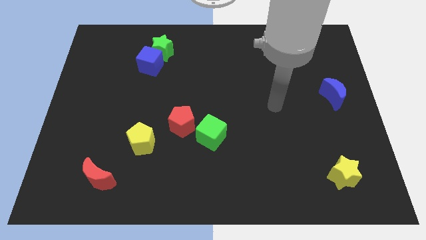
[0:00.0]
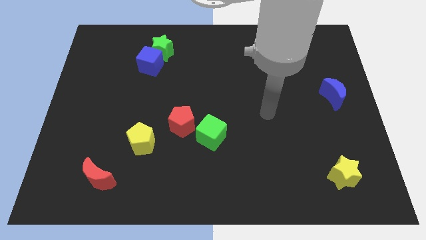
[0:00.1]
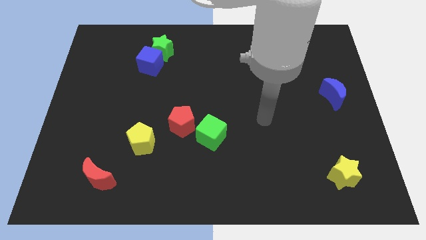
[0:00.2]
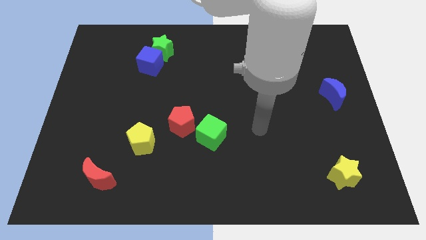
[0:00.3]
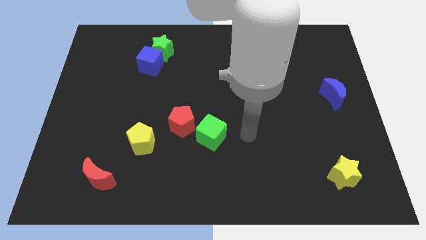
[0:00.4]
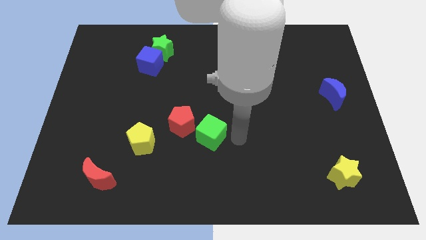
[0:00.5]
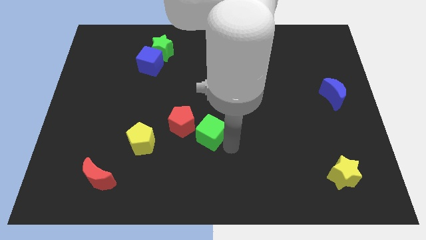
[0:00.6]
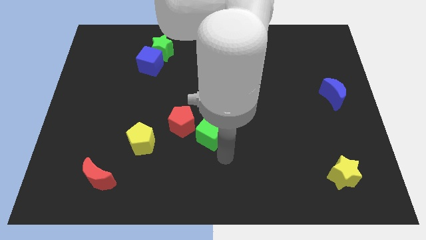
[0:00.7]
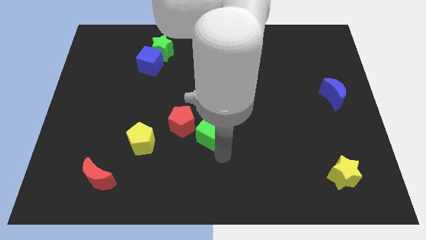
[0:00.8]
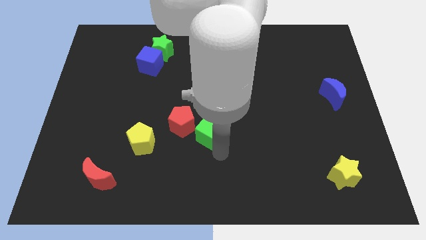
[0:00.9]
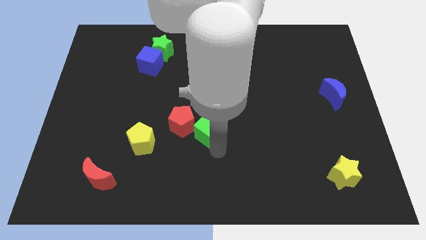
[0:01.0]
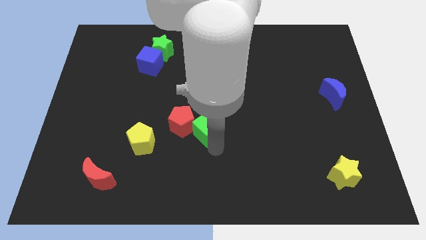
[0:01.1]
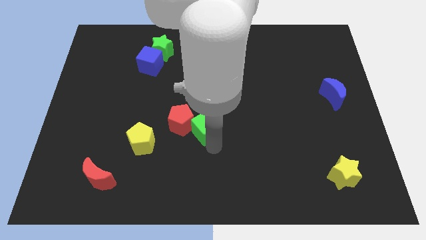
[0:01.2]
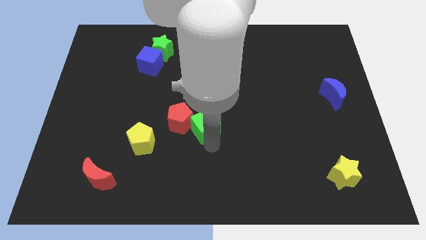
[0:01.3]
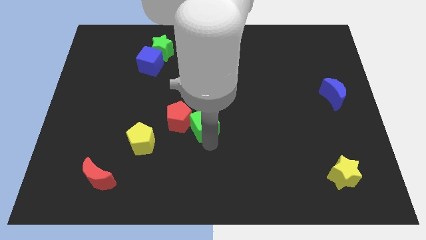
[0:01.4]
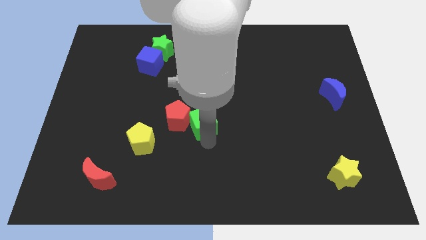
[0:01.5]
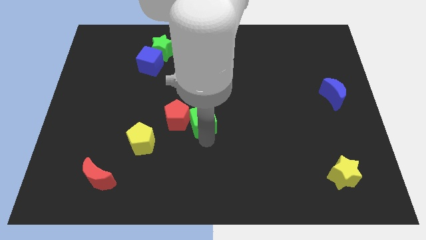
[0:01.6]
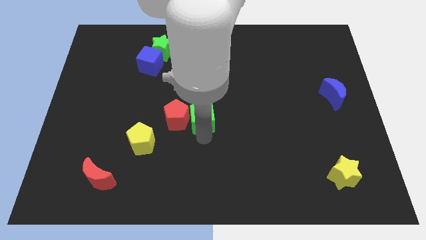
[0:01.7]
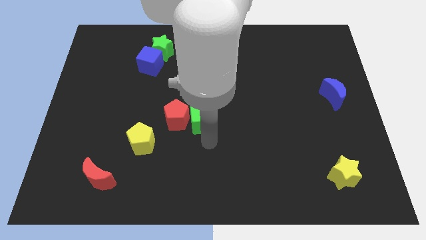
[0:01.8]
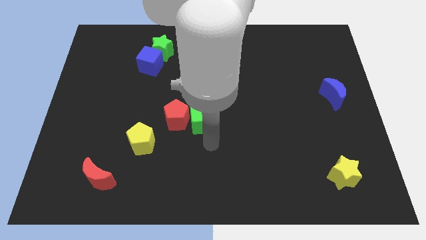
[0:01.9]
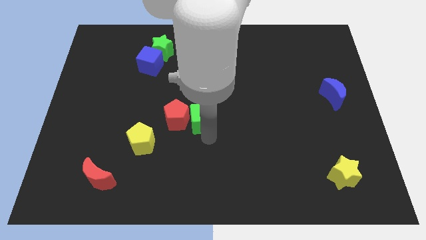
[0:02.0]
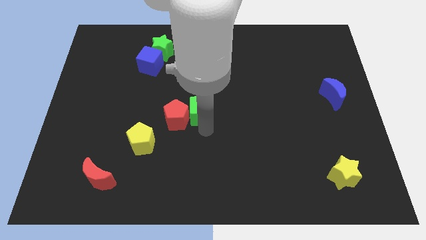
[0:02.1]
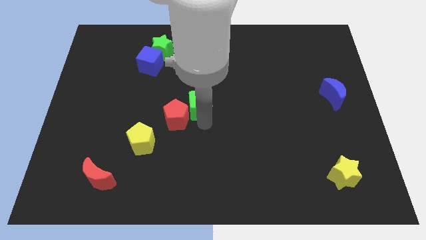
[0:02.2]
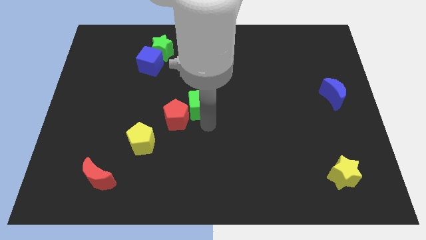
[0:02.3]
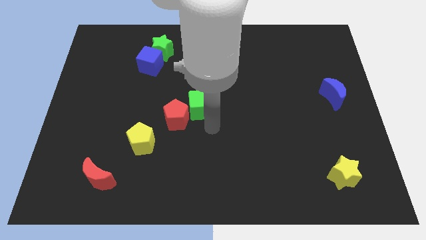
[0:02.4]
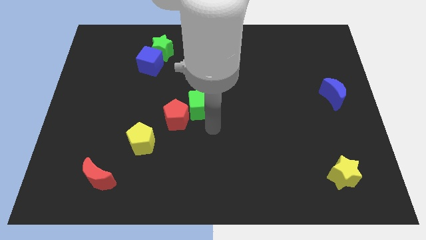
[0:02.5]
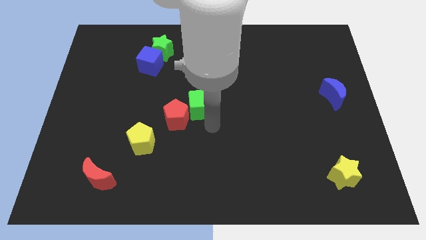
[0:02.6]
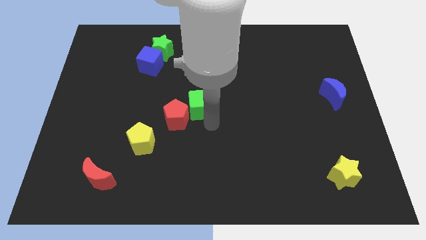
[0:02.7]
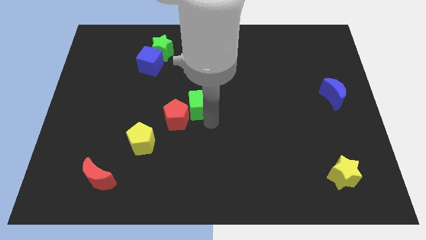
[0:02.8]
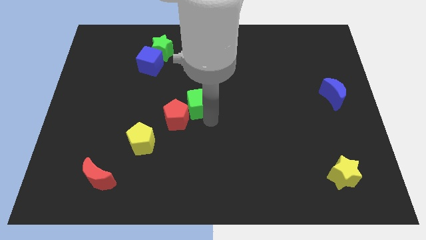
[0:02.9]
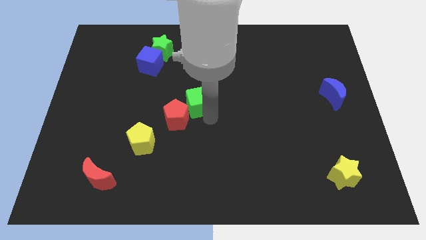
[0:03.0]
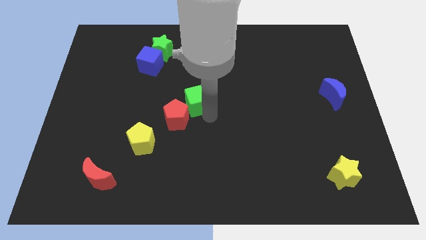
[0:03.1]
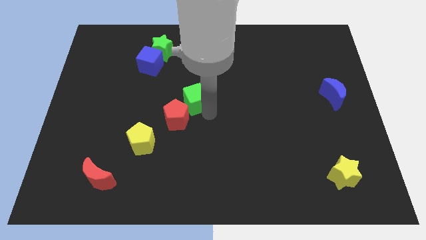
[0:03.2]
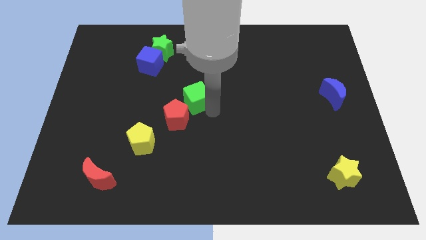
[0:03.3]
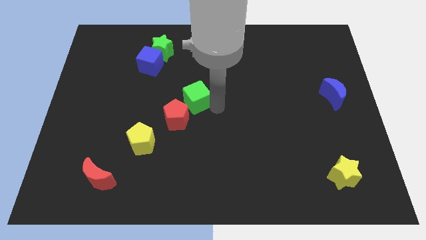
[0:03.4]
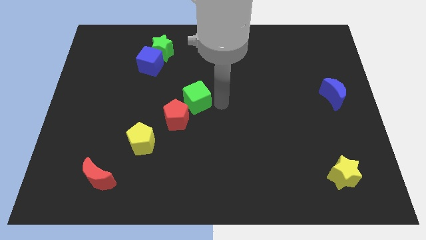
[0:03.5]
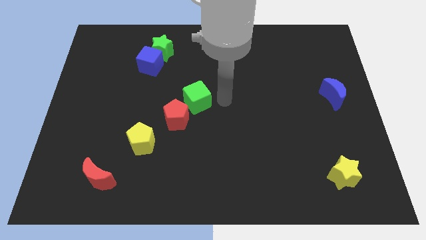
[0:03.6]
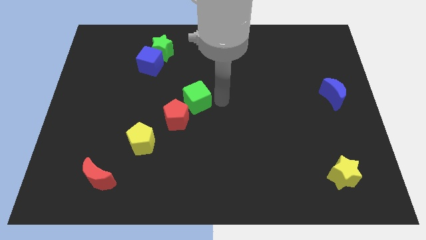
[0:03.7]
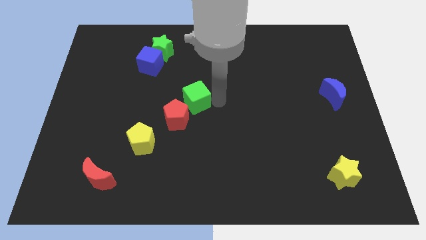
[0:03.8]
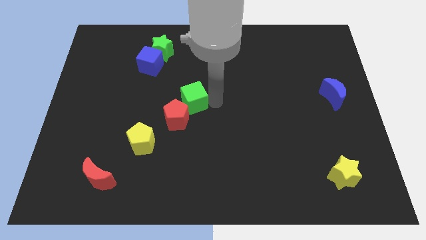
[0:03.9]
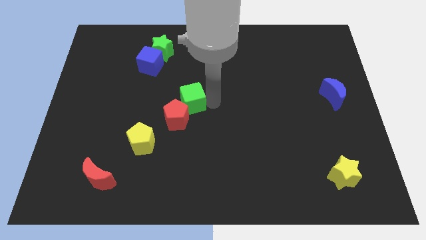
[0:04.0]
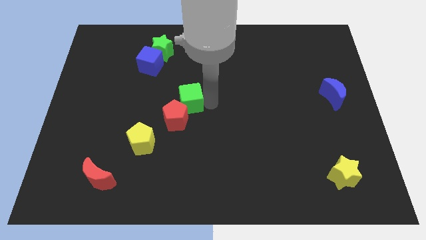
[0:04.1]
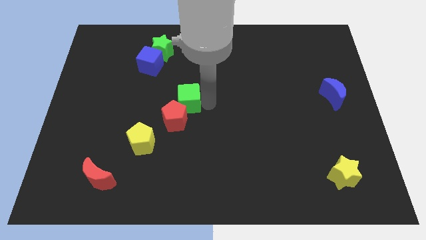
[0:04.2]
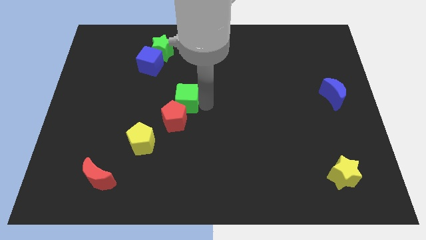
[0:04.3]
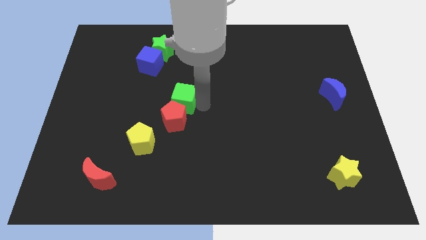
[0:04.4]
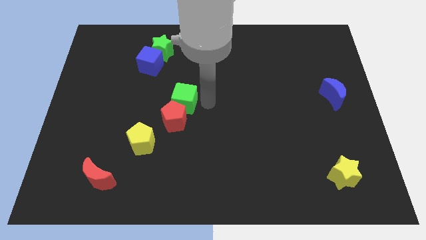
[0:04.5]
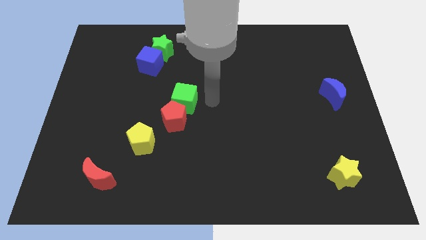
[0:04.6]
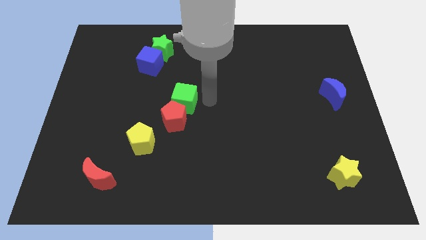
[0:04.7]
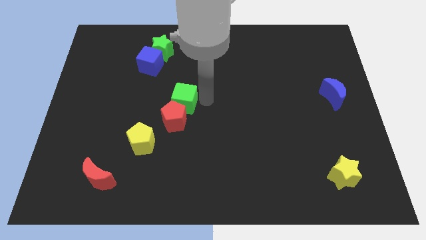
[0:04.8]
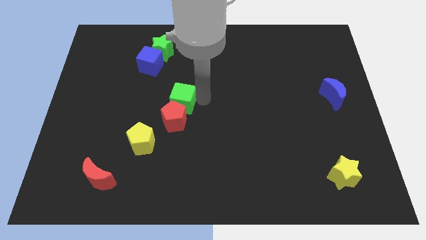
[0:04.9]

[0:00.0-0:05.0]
move the green cube diagonally up and to the left of the red pentagon

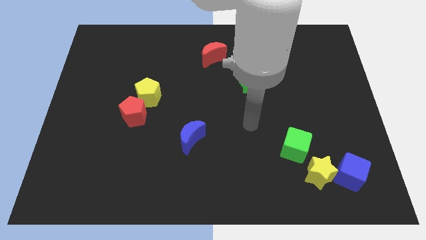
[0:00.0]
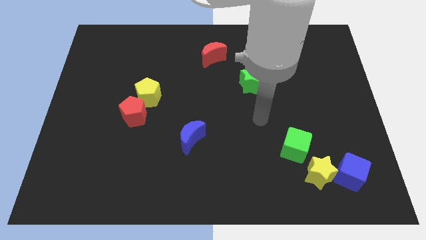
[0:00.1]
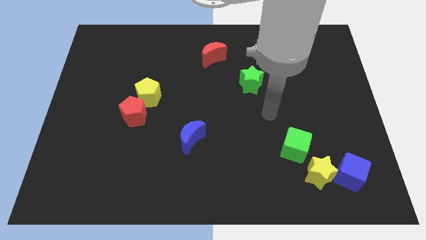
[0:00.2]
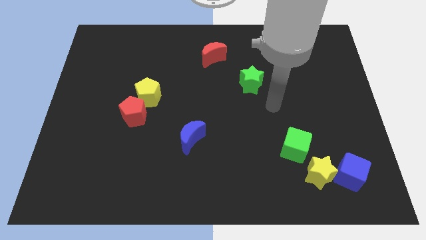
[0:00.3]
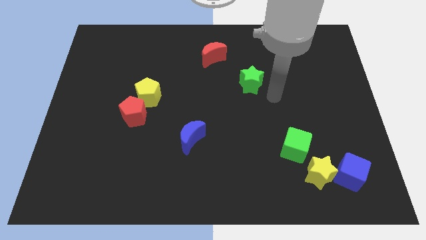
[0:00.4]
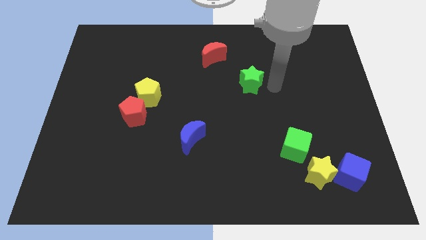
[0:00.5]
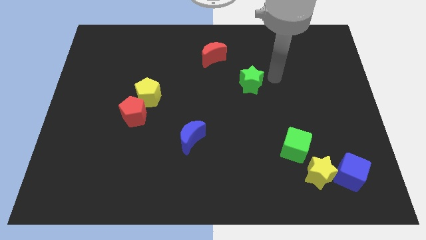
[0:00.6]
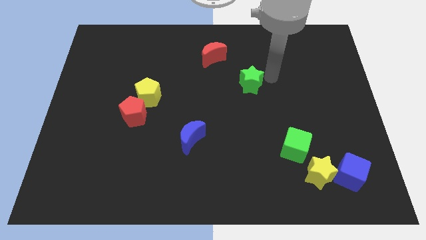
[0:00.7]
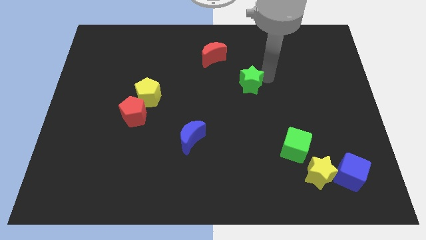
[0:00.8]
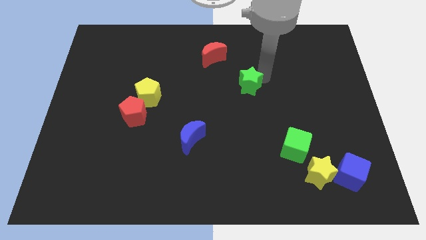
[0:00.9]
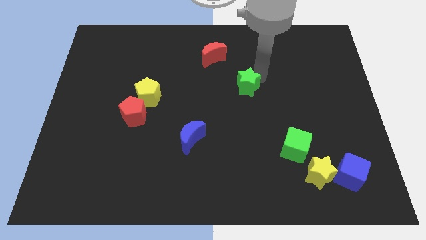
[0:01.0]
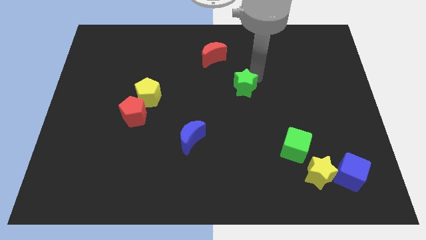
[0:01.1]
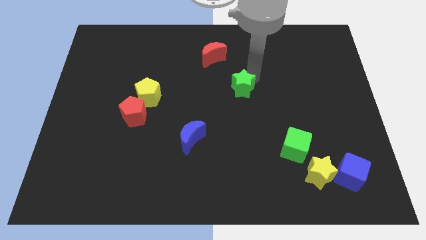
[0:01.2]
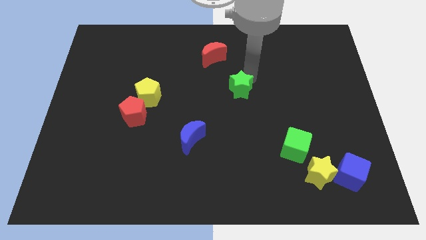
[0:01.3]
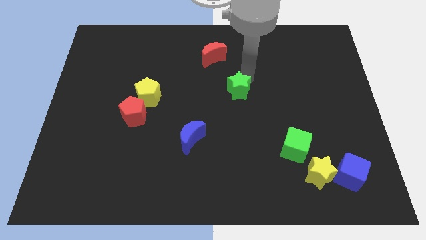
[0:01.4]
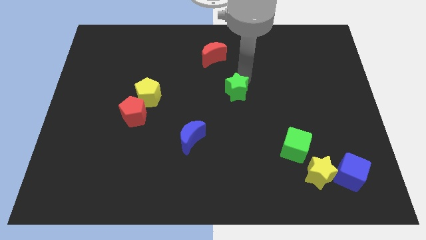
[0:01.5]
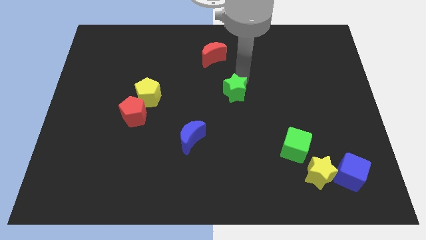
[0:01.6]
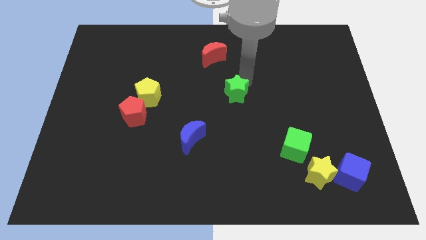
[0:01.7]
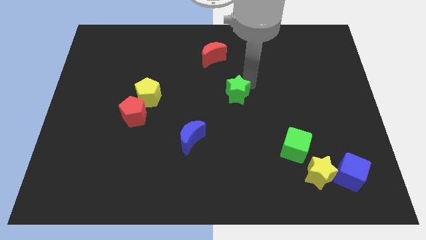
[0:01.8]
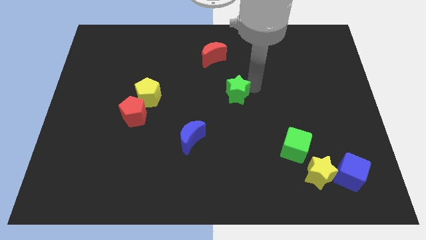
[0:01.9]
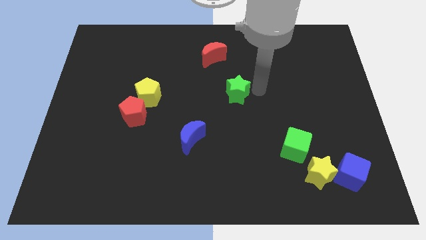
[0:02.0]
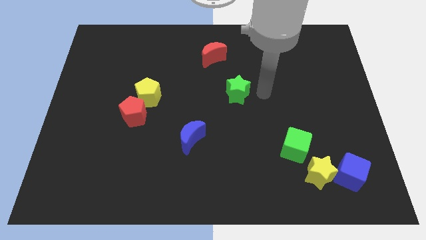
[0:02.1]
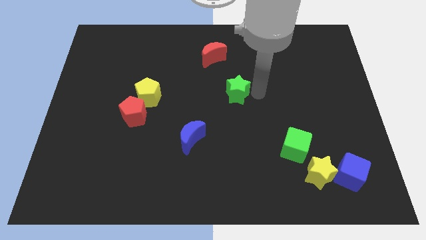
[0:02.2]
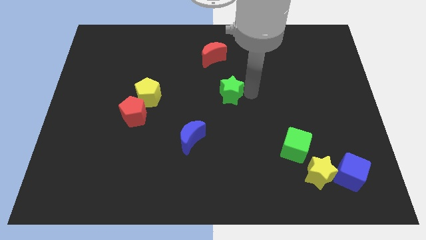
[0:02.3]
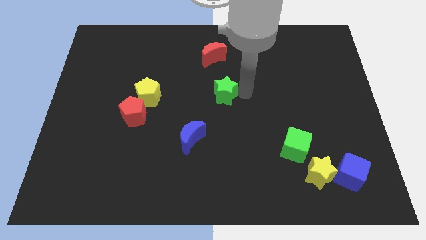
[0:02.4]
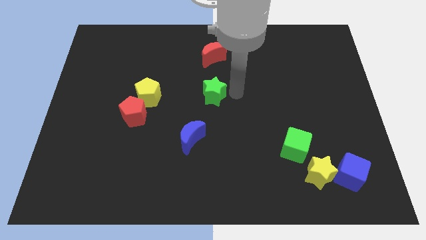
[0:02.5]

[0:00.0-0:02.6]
push the green star just right of the yellow pentagon
